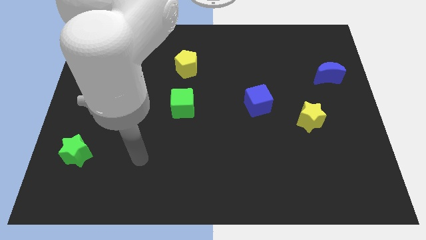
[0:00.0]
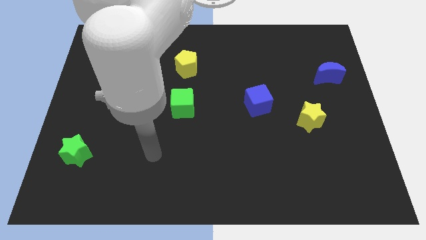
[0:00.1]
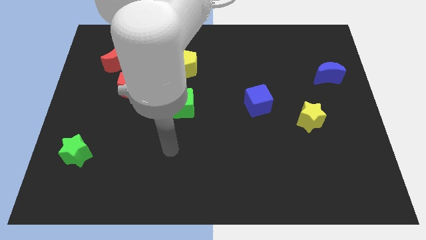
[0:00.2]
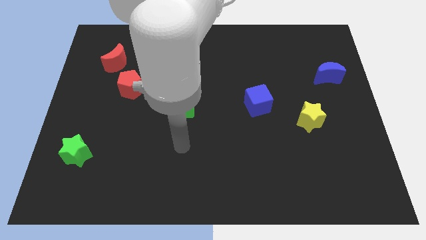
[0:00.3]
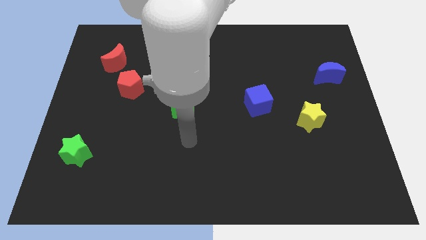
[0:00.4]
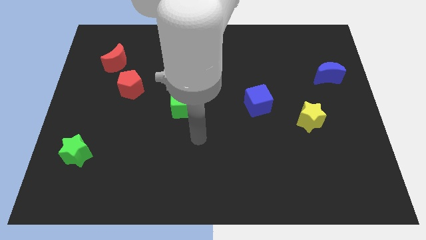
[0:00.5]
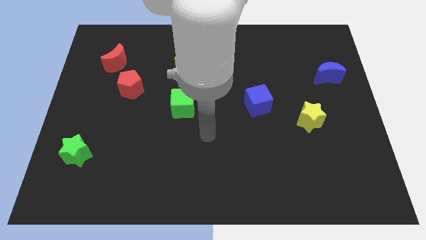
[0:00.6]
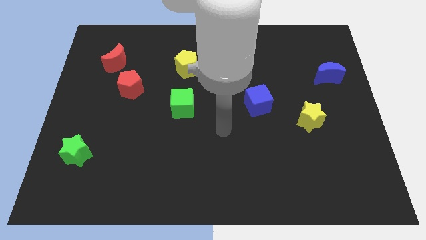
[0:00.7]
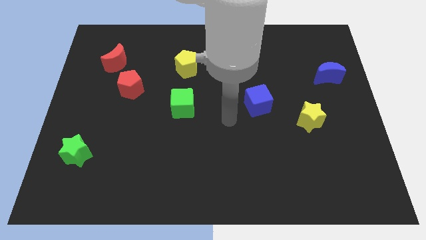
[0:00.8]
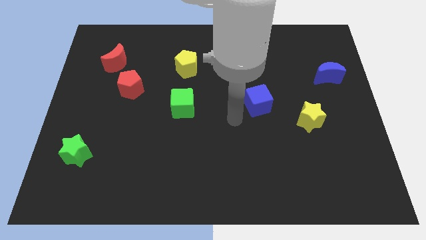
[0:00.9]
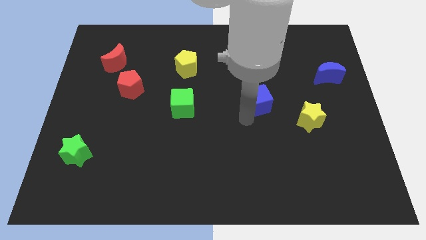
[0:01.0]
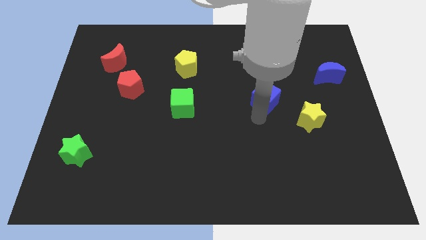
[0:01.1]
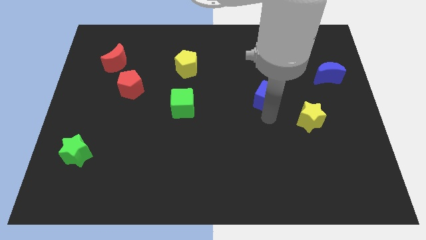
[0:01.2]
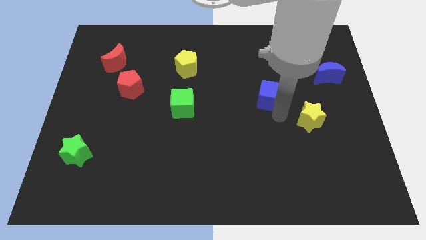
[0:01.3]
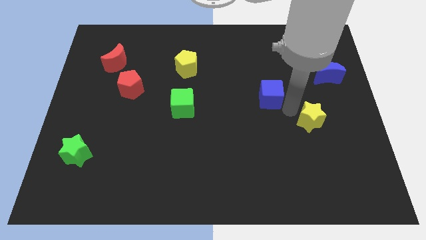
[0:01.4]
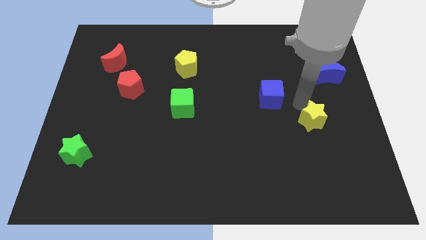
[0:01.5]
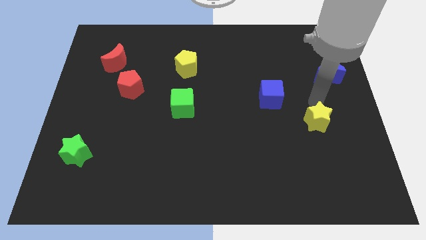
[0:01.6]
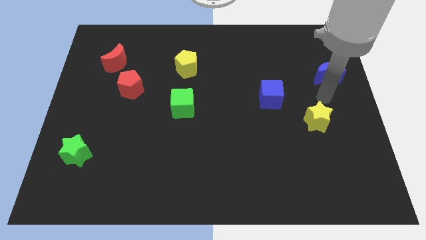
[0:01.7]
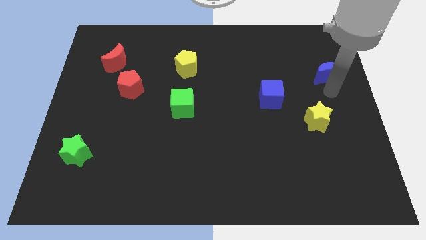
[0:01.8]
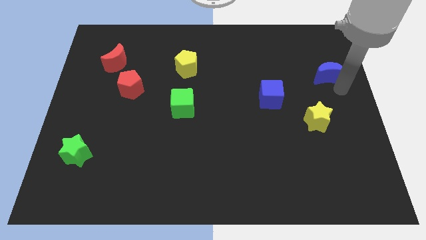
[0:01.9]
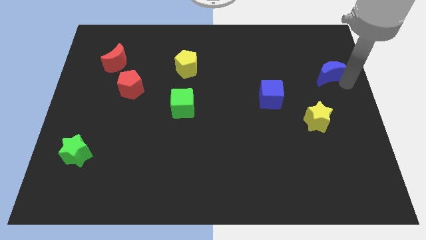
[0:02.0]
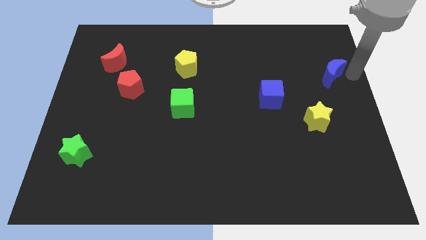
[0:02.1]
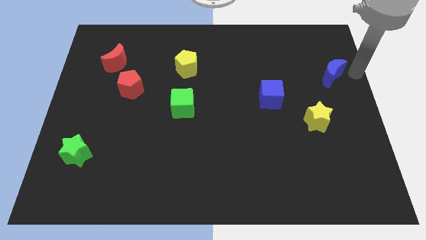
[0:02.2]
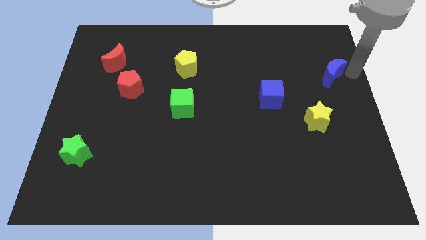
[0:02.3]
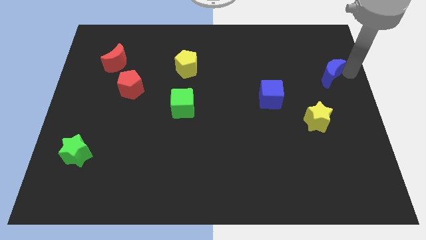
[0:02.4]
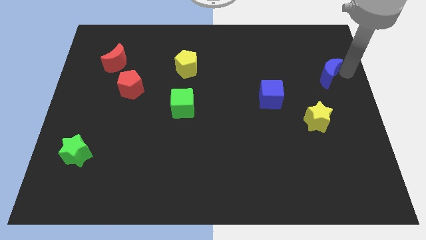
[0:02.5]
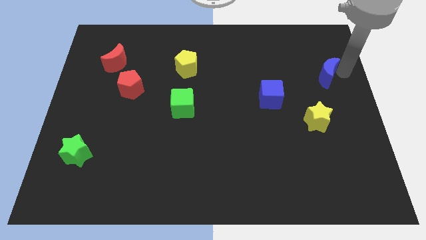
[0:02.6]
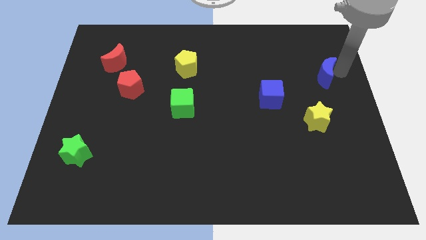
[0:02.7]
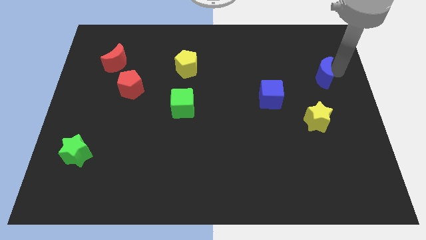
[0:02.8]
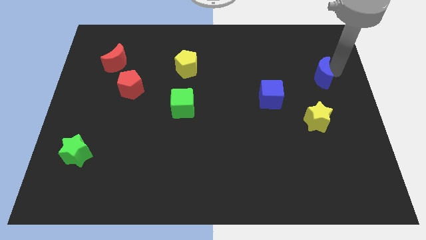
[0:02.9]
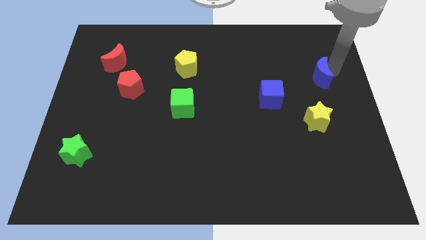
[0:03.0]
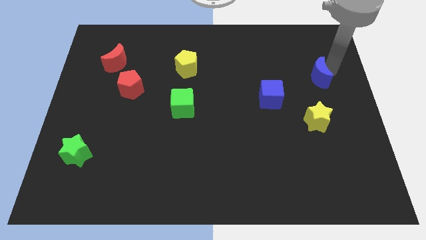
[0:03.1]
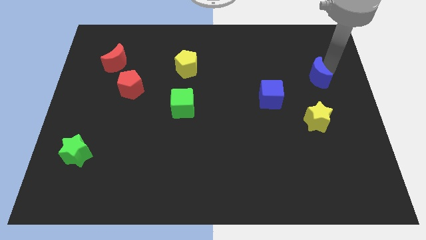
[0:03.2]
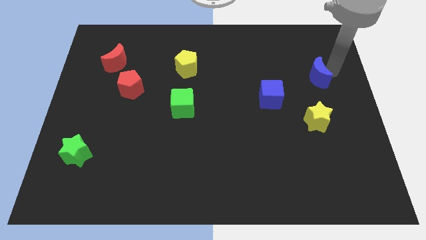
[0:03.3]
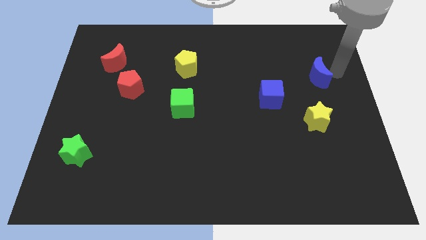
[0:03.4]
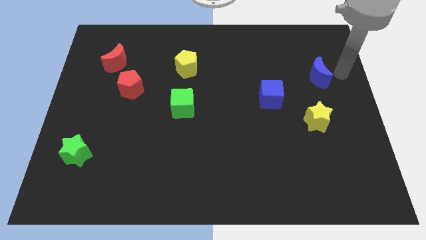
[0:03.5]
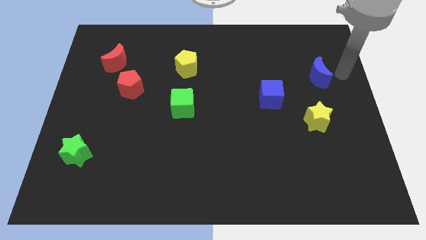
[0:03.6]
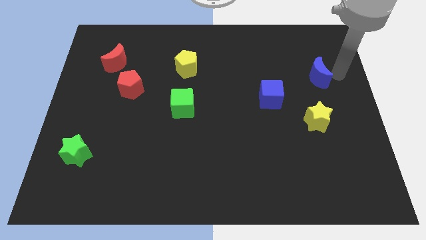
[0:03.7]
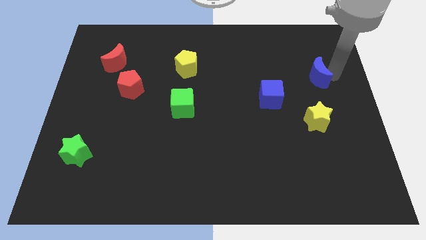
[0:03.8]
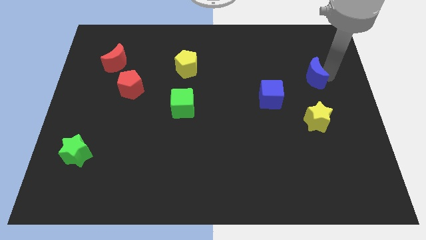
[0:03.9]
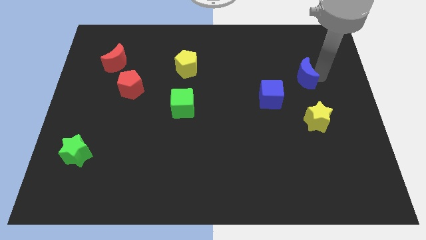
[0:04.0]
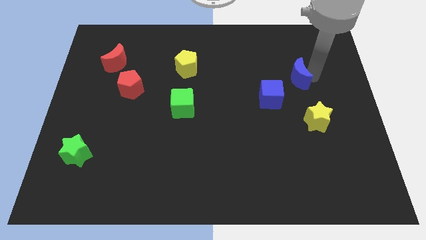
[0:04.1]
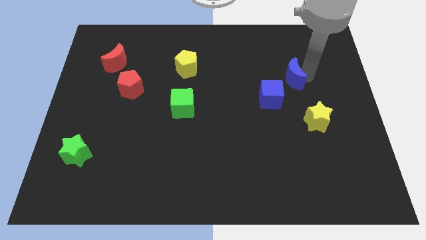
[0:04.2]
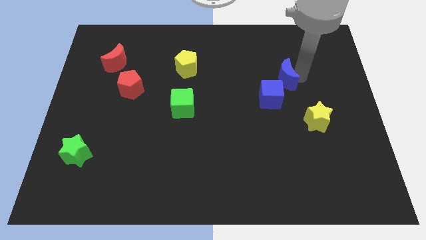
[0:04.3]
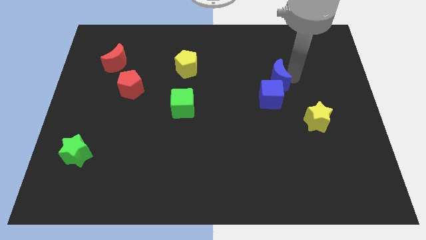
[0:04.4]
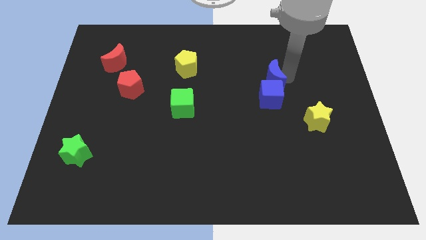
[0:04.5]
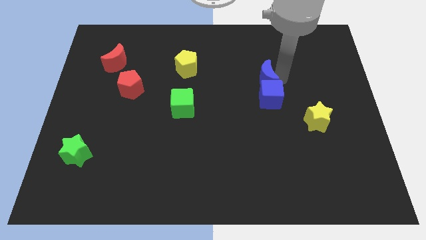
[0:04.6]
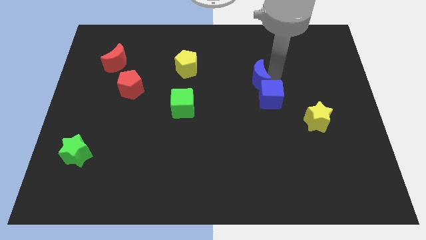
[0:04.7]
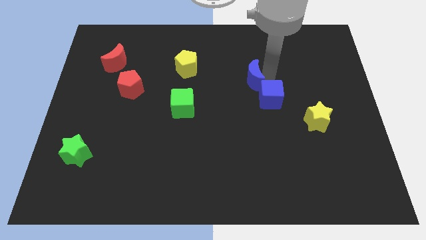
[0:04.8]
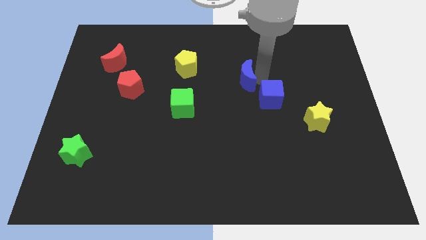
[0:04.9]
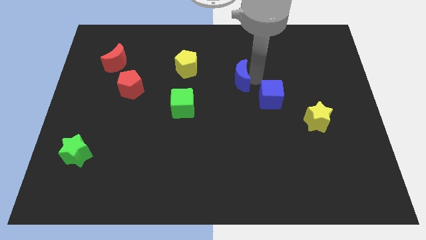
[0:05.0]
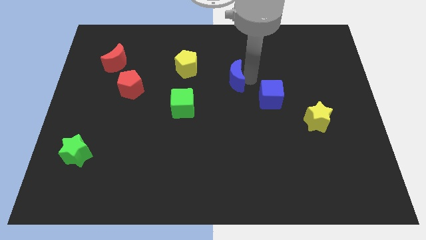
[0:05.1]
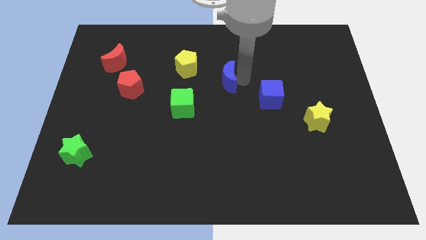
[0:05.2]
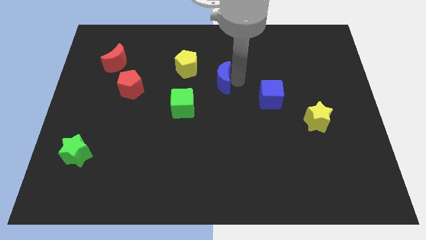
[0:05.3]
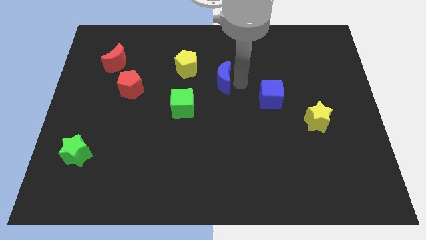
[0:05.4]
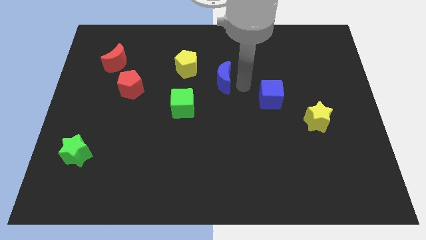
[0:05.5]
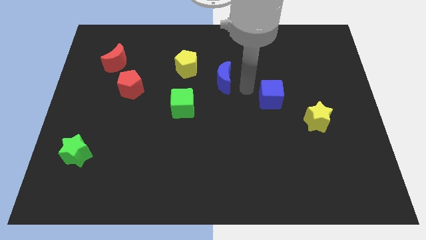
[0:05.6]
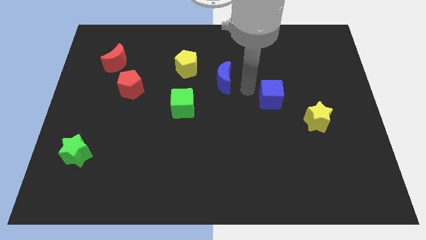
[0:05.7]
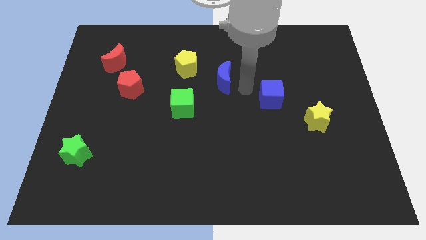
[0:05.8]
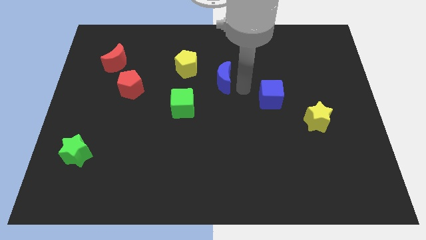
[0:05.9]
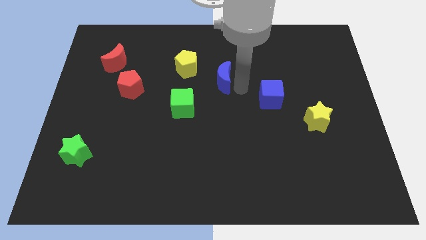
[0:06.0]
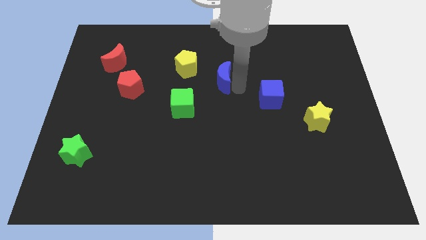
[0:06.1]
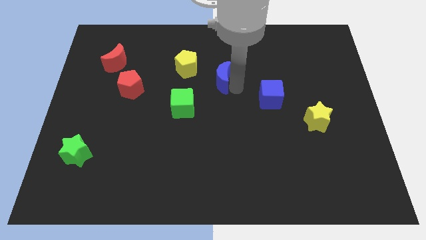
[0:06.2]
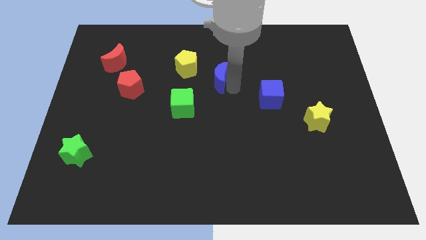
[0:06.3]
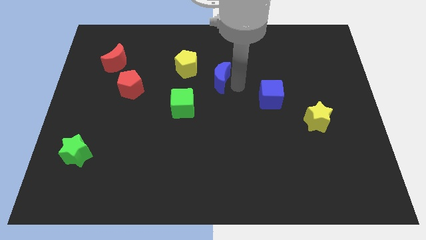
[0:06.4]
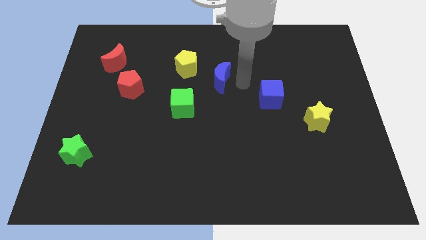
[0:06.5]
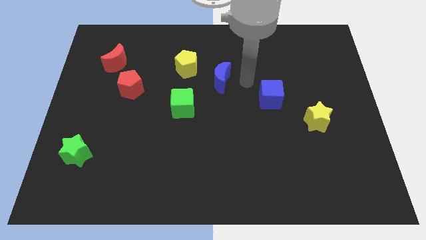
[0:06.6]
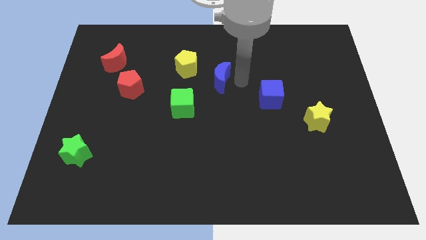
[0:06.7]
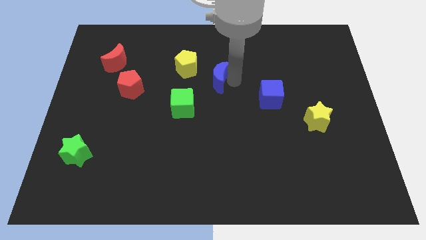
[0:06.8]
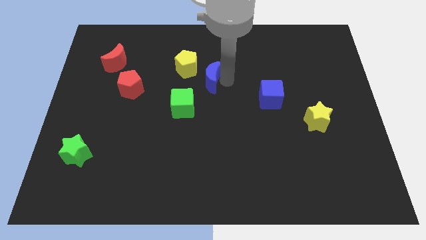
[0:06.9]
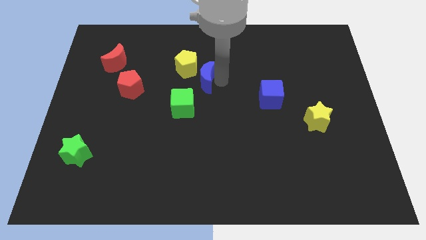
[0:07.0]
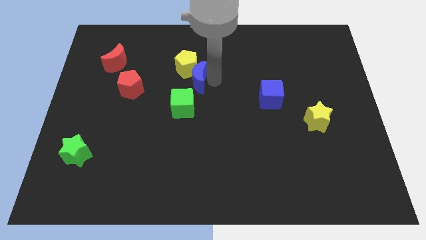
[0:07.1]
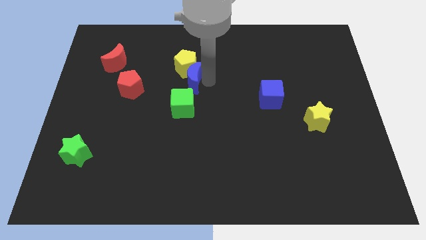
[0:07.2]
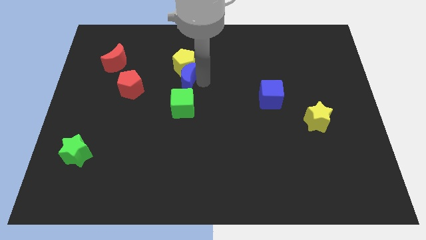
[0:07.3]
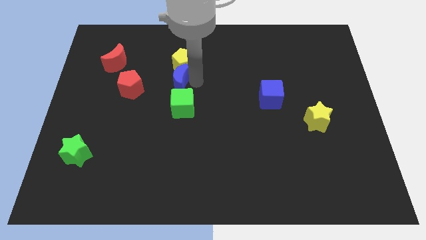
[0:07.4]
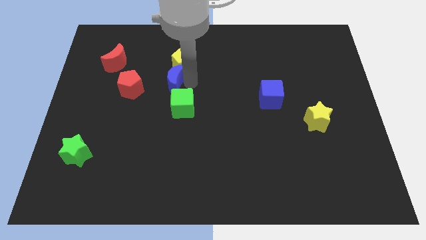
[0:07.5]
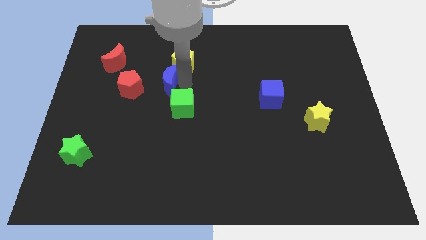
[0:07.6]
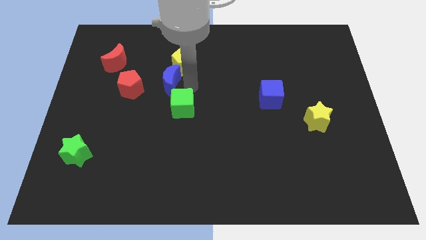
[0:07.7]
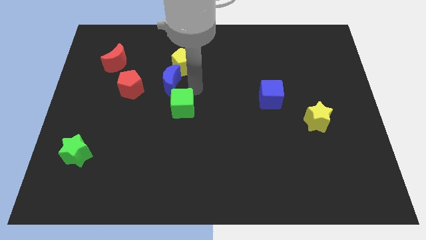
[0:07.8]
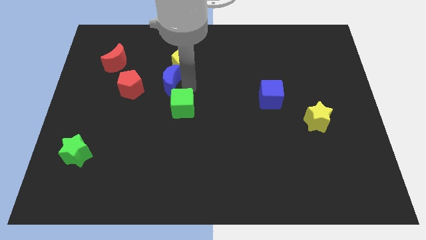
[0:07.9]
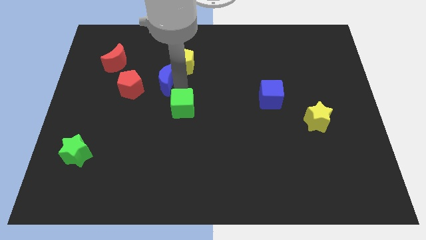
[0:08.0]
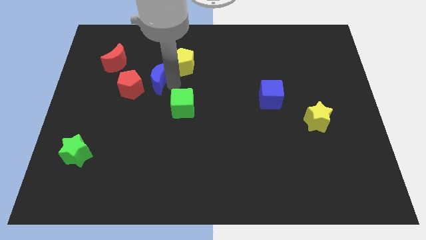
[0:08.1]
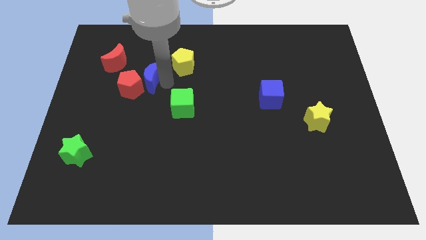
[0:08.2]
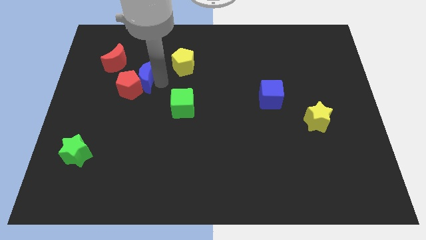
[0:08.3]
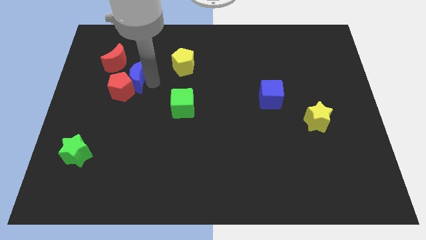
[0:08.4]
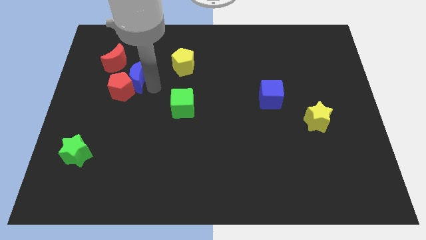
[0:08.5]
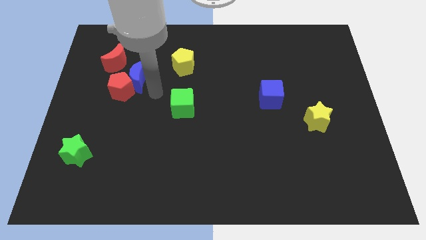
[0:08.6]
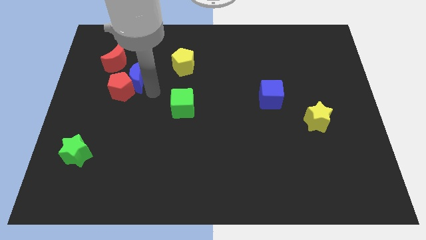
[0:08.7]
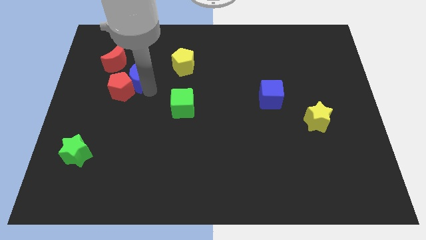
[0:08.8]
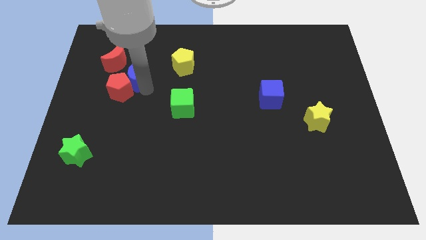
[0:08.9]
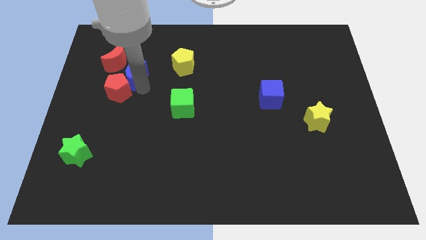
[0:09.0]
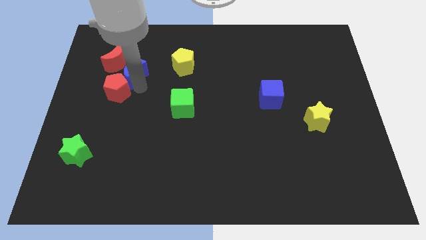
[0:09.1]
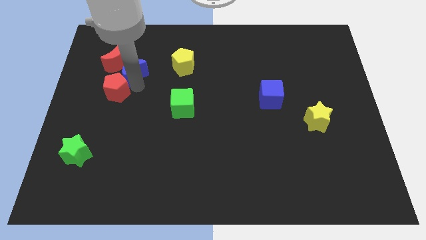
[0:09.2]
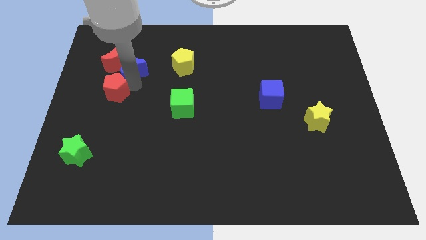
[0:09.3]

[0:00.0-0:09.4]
move the blue moon next to the red moon
